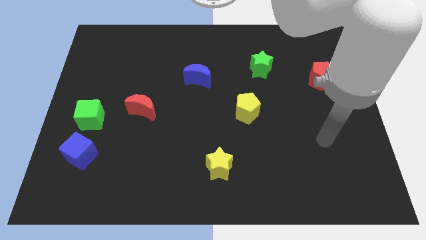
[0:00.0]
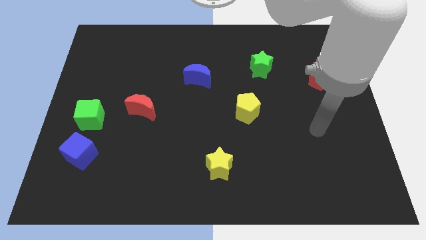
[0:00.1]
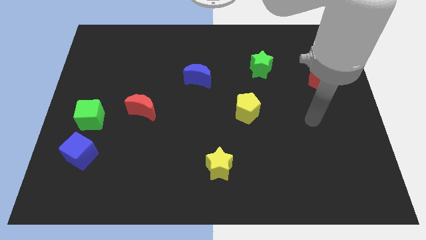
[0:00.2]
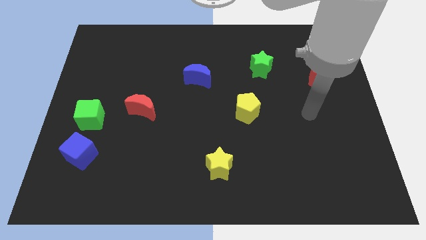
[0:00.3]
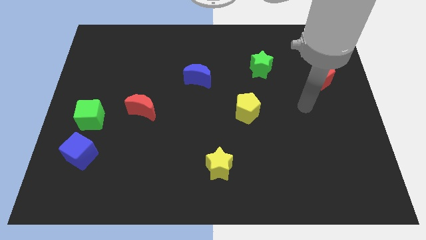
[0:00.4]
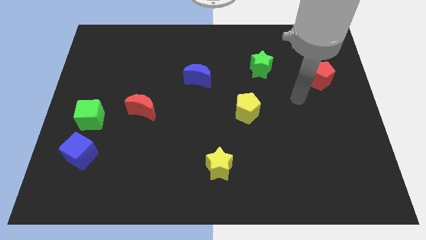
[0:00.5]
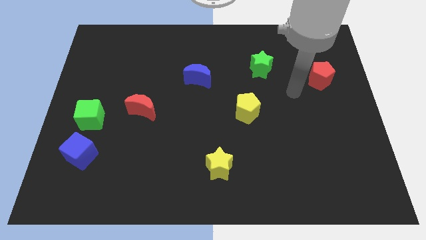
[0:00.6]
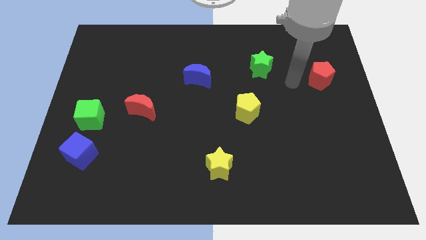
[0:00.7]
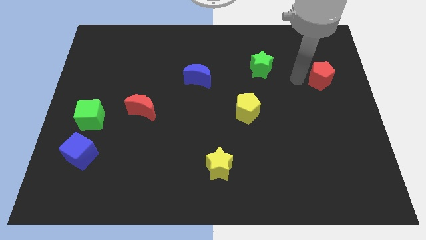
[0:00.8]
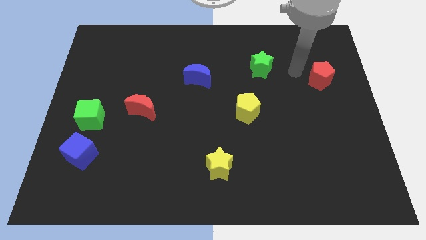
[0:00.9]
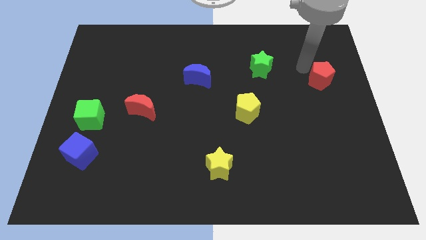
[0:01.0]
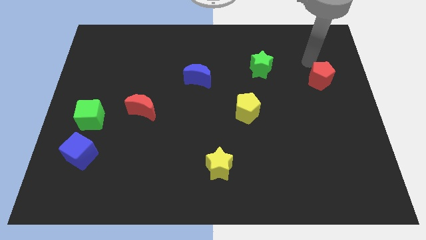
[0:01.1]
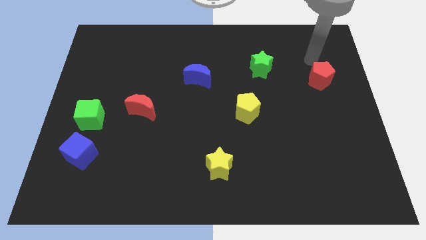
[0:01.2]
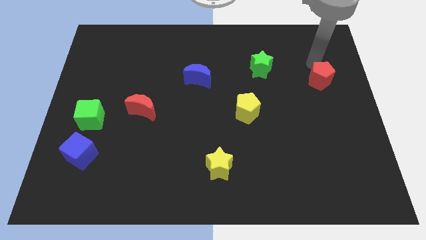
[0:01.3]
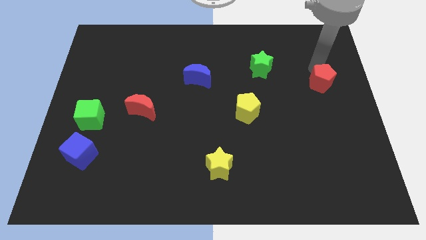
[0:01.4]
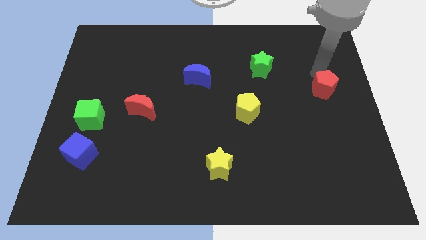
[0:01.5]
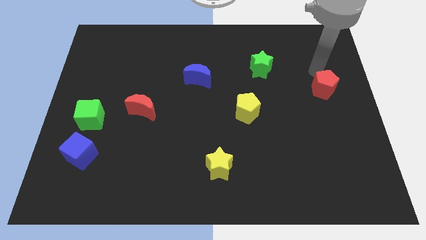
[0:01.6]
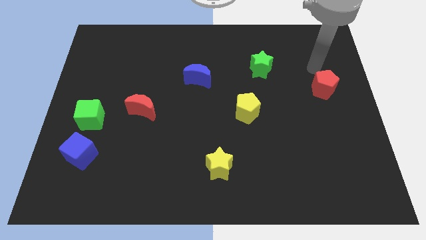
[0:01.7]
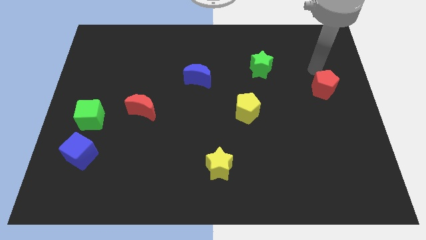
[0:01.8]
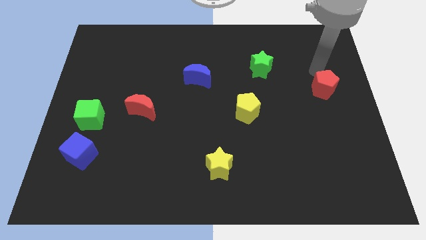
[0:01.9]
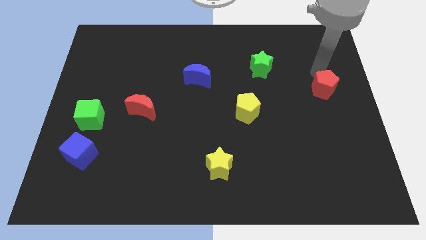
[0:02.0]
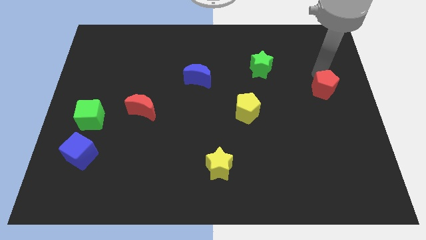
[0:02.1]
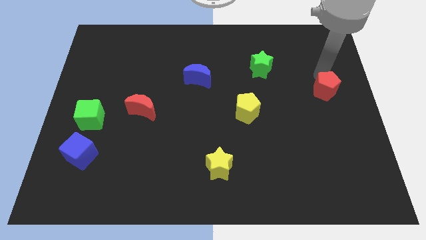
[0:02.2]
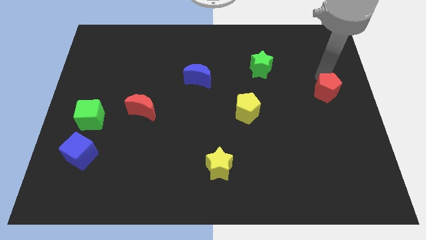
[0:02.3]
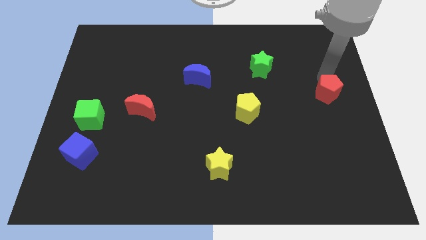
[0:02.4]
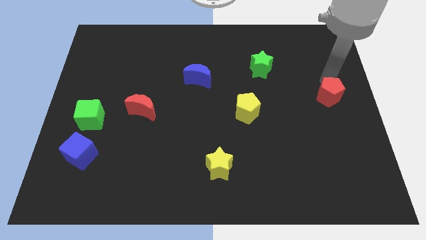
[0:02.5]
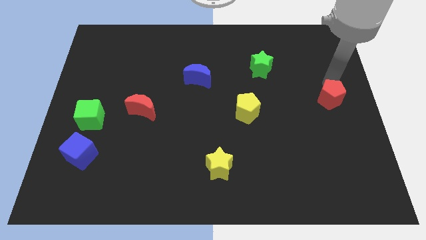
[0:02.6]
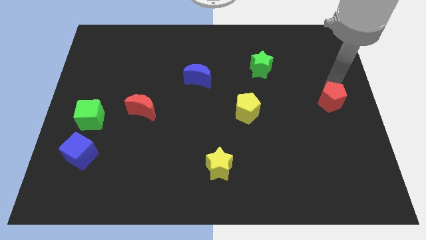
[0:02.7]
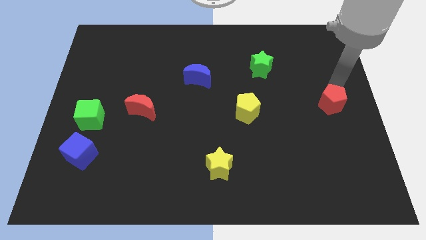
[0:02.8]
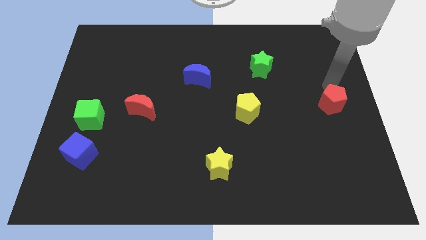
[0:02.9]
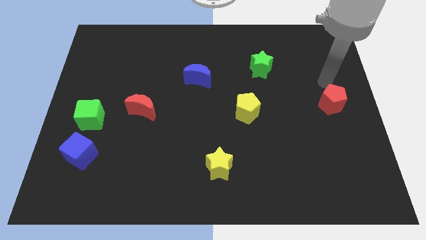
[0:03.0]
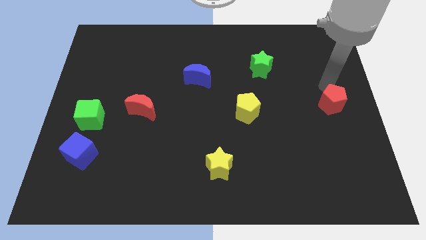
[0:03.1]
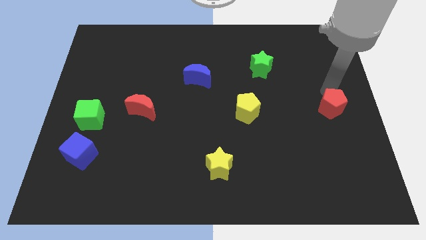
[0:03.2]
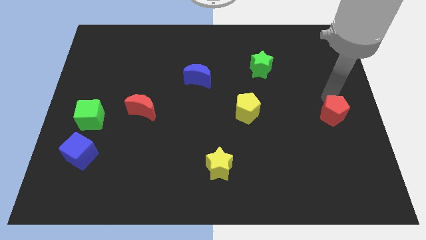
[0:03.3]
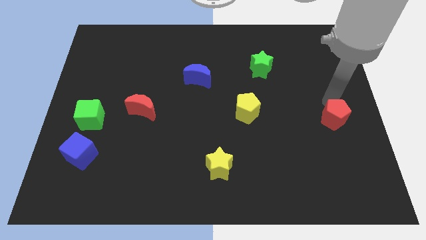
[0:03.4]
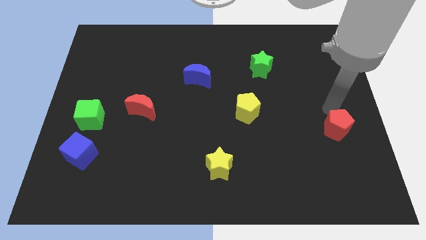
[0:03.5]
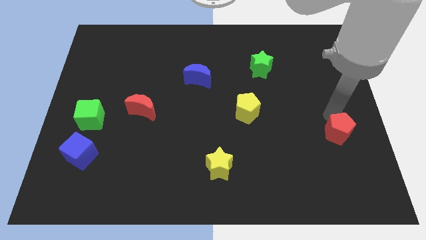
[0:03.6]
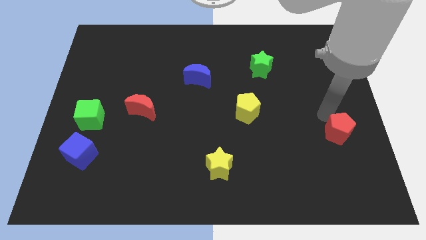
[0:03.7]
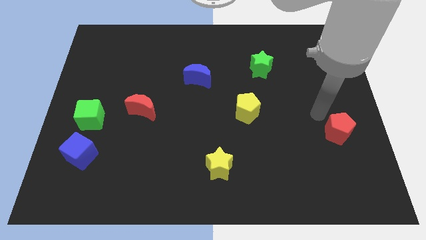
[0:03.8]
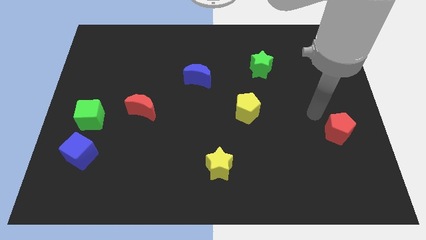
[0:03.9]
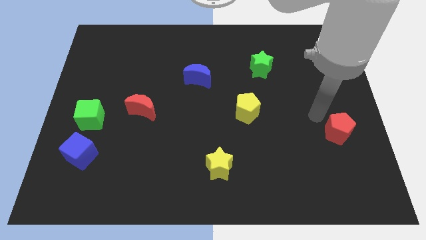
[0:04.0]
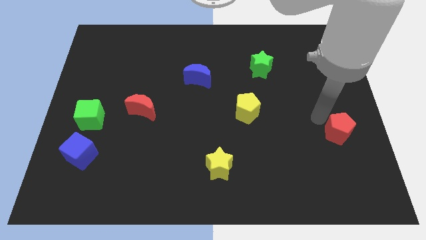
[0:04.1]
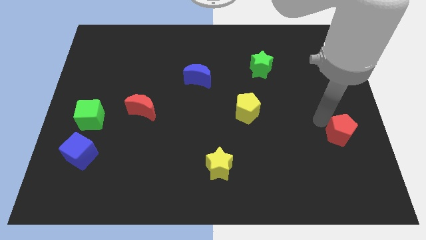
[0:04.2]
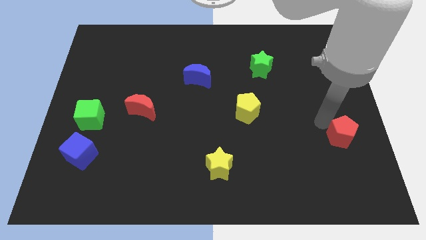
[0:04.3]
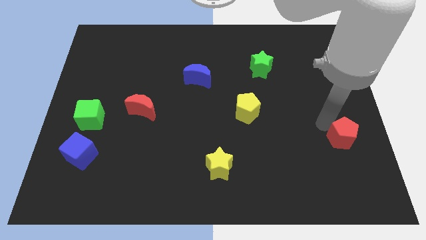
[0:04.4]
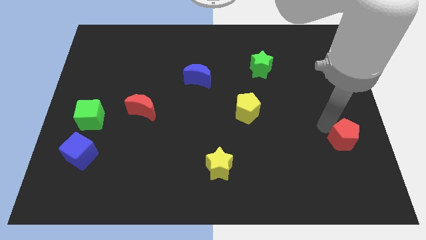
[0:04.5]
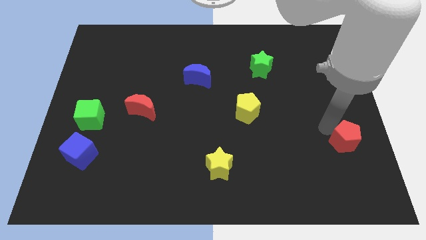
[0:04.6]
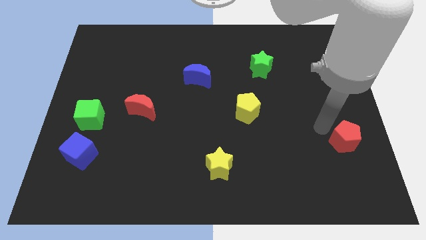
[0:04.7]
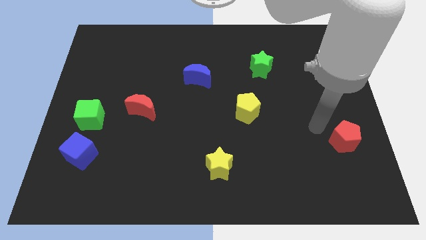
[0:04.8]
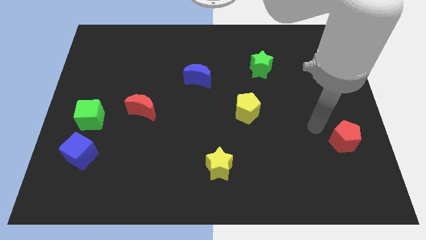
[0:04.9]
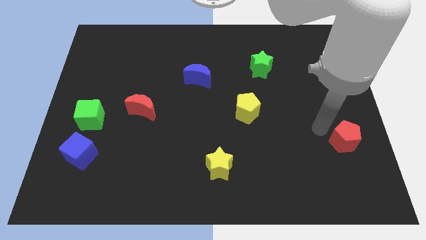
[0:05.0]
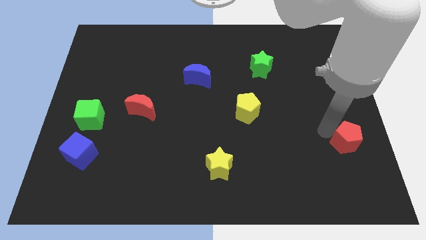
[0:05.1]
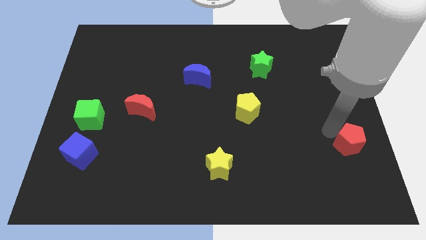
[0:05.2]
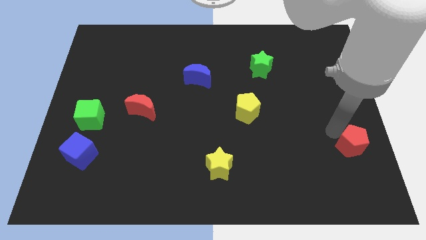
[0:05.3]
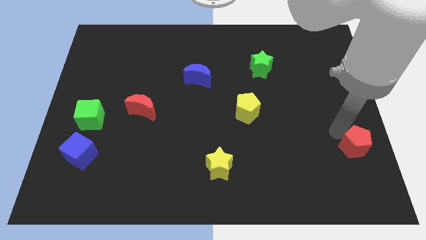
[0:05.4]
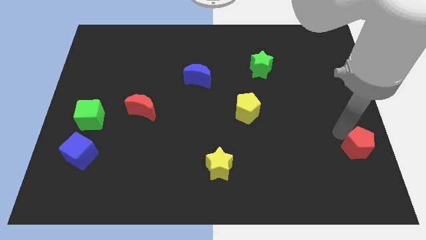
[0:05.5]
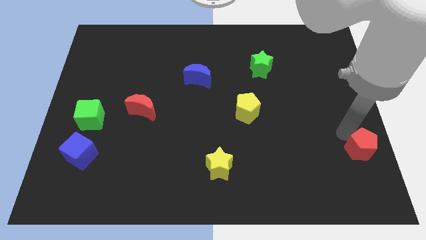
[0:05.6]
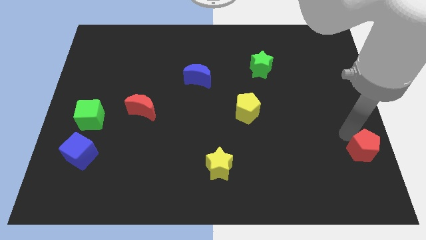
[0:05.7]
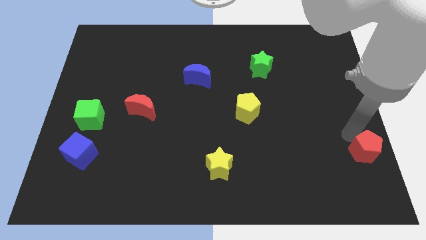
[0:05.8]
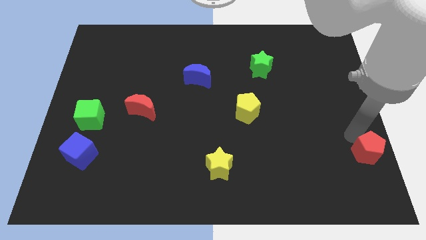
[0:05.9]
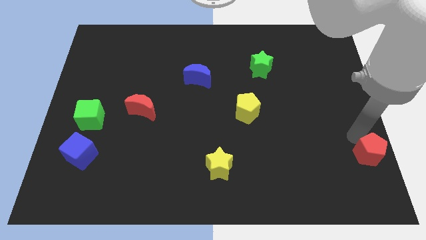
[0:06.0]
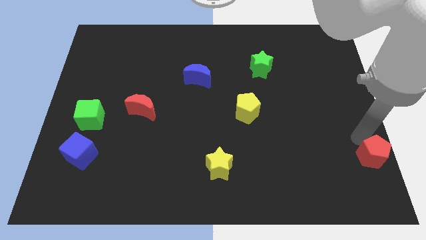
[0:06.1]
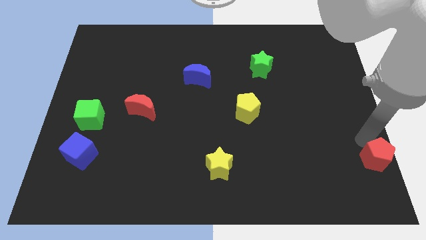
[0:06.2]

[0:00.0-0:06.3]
move the red pentagon to the lower right corner
